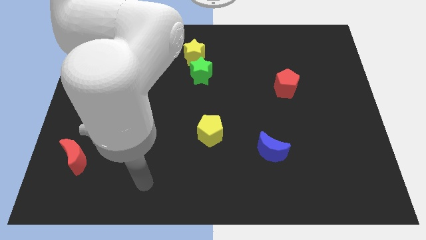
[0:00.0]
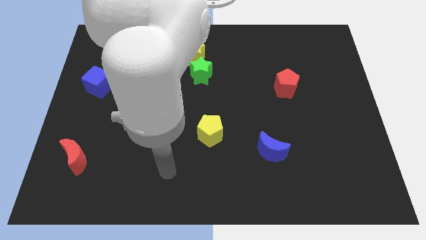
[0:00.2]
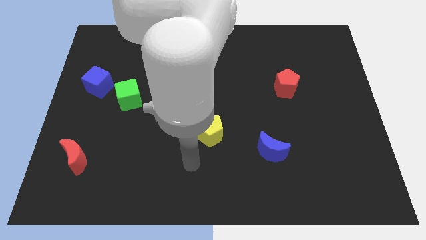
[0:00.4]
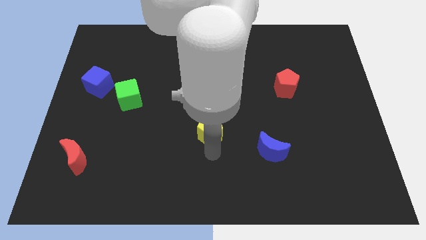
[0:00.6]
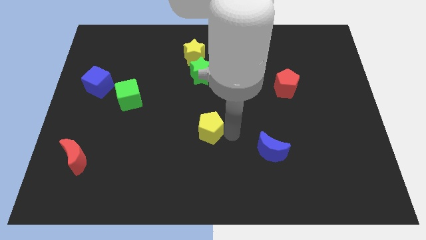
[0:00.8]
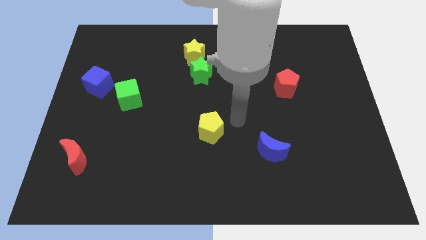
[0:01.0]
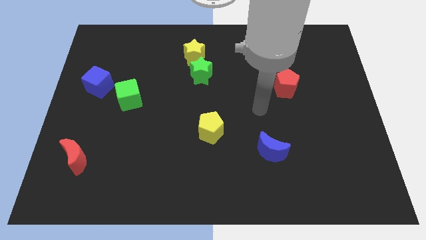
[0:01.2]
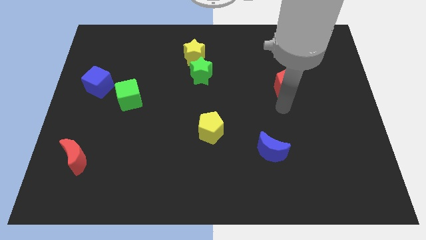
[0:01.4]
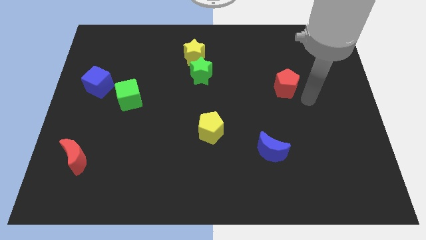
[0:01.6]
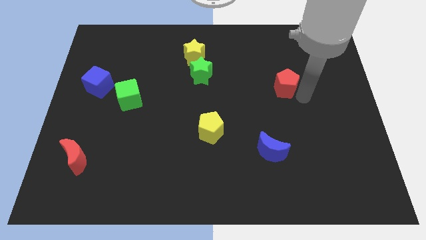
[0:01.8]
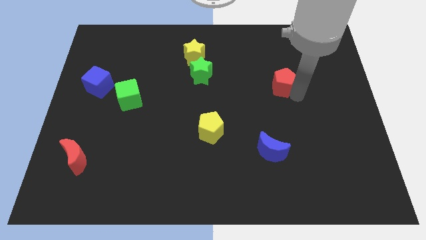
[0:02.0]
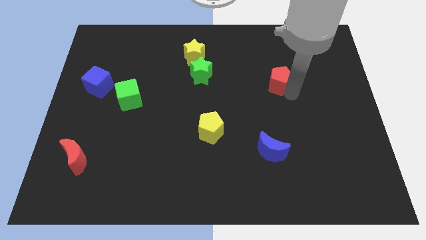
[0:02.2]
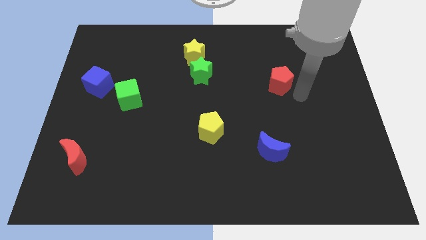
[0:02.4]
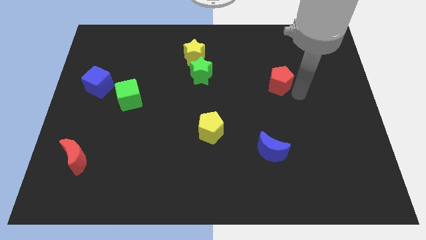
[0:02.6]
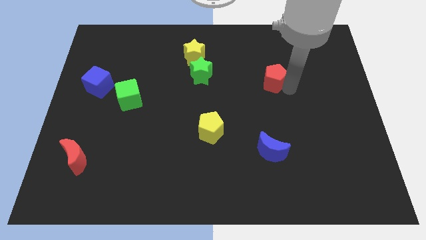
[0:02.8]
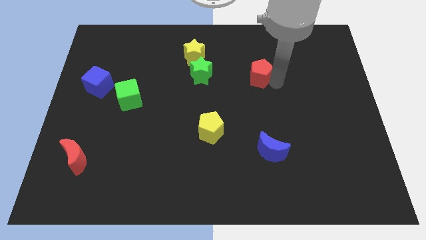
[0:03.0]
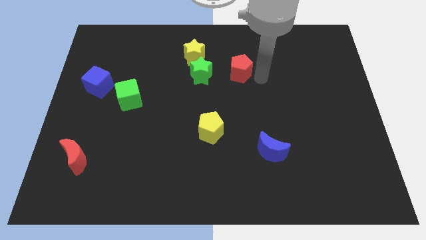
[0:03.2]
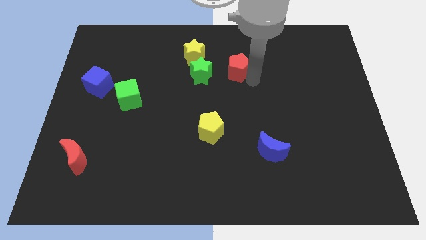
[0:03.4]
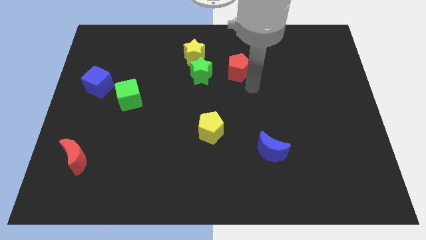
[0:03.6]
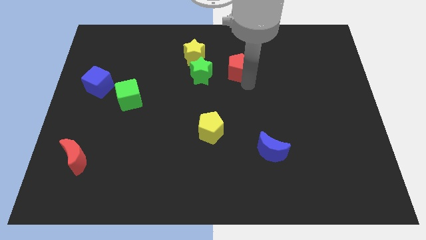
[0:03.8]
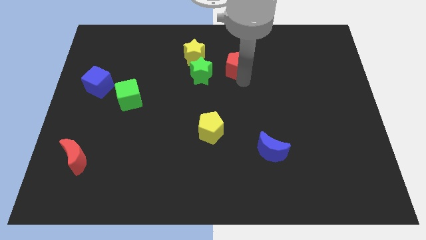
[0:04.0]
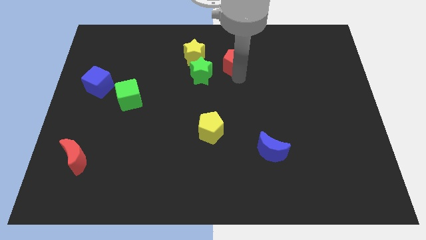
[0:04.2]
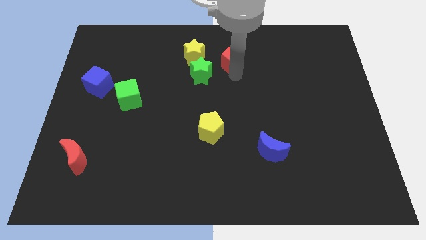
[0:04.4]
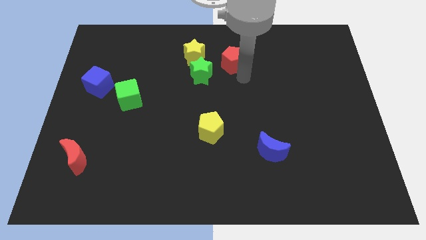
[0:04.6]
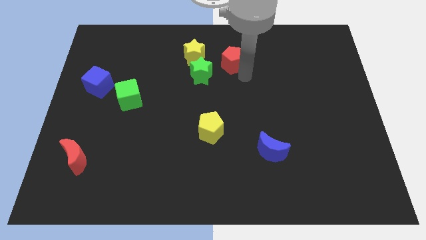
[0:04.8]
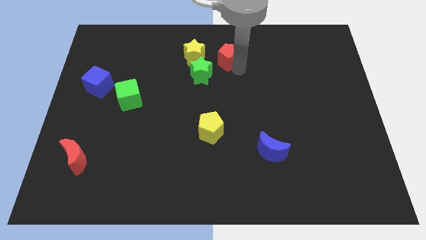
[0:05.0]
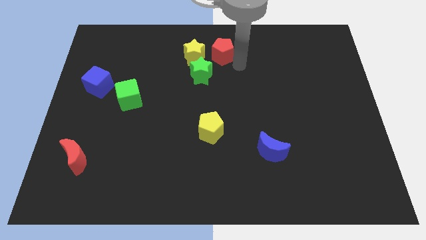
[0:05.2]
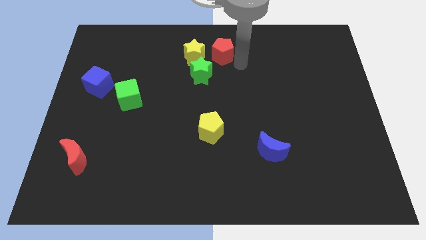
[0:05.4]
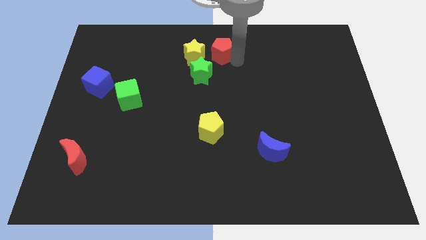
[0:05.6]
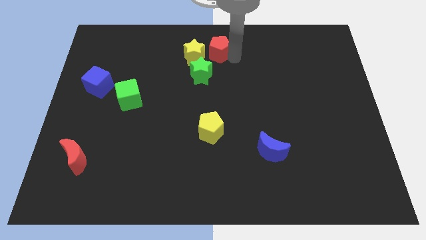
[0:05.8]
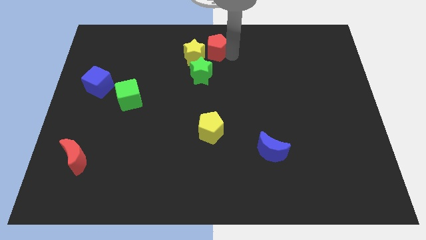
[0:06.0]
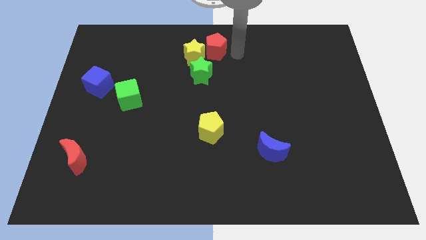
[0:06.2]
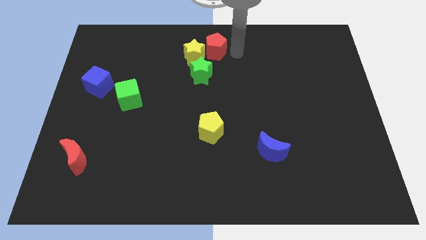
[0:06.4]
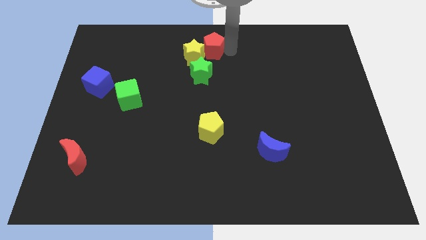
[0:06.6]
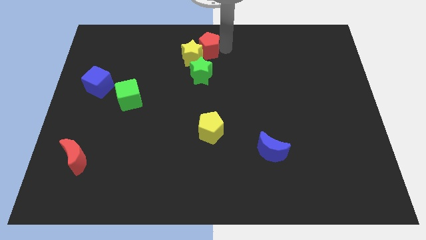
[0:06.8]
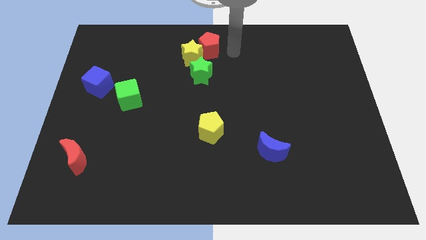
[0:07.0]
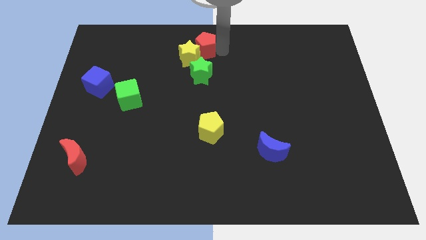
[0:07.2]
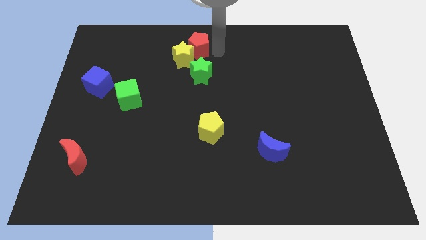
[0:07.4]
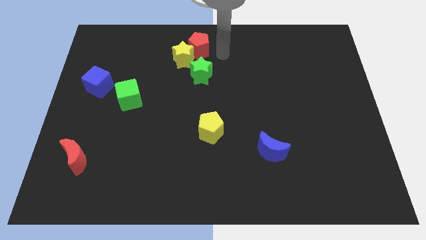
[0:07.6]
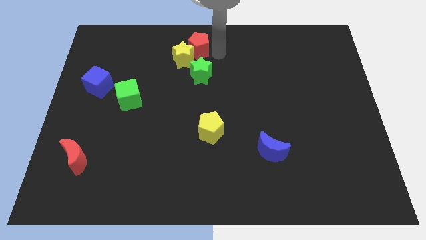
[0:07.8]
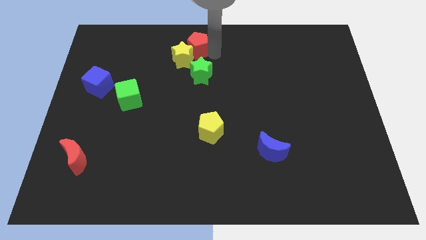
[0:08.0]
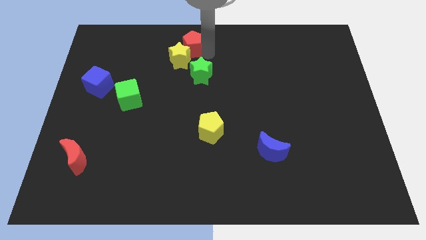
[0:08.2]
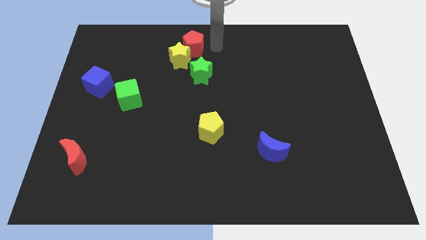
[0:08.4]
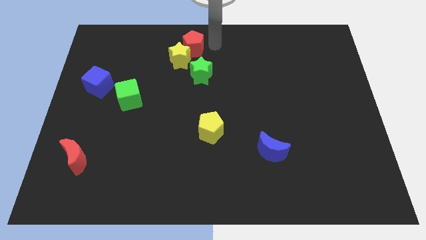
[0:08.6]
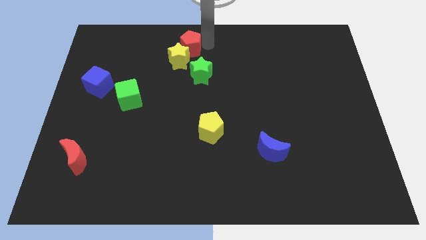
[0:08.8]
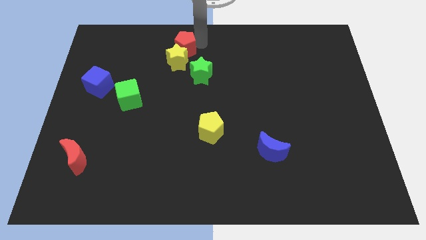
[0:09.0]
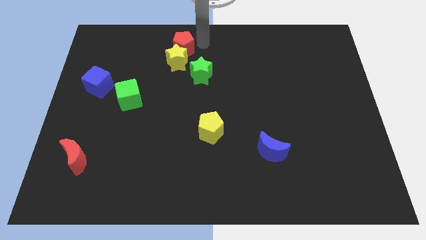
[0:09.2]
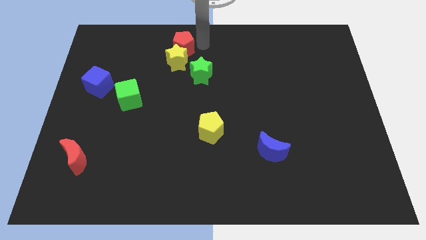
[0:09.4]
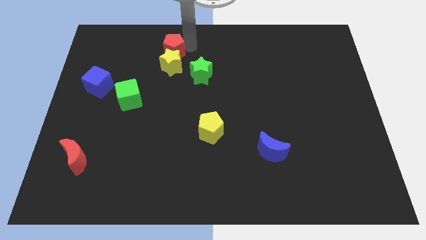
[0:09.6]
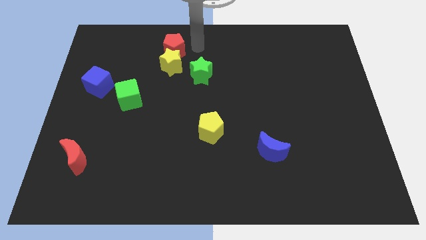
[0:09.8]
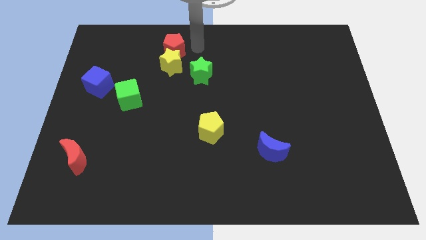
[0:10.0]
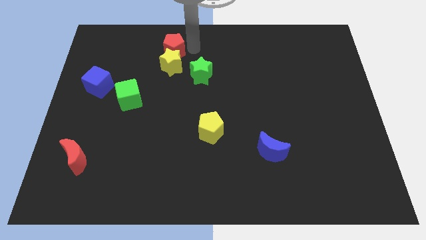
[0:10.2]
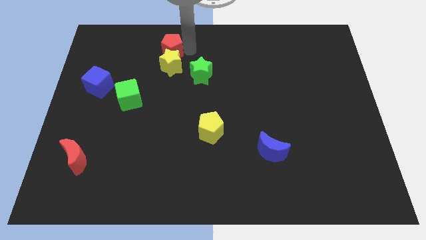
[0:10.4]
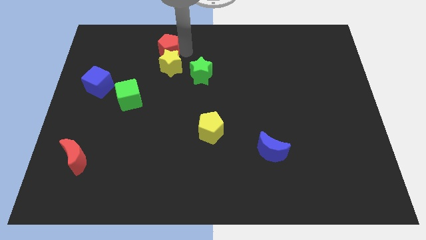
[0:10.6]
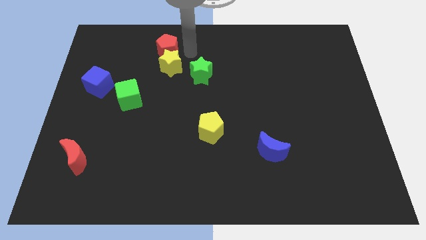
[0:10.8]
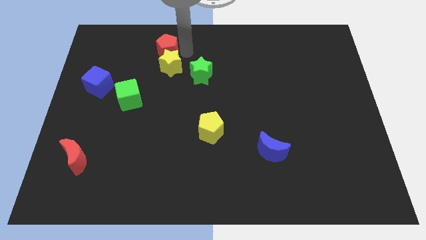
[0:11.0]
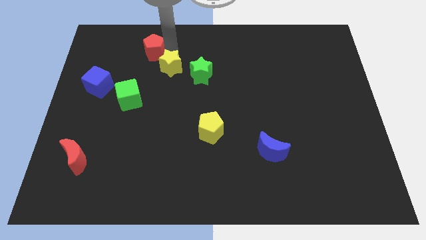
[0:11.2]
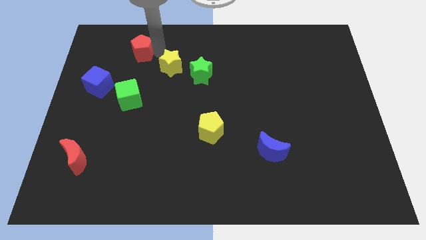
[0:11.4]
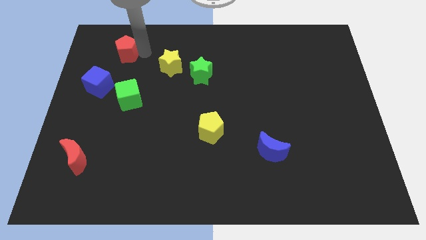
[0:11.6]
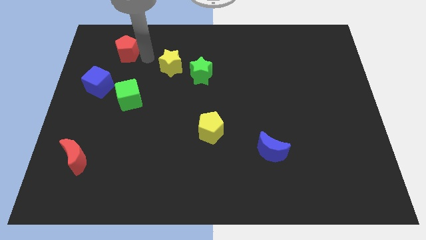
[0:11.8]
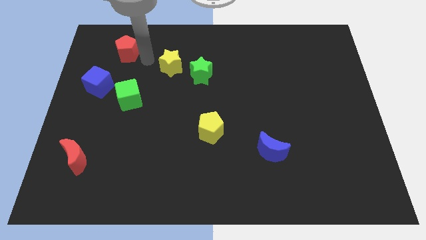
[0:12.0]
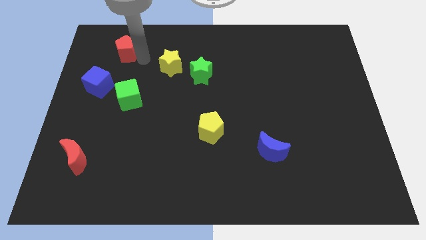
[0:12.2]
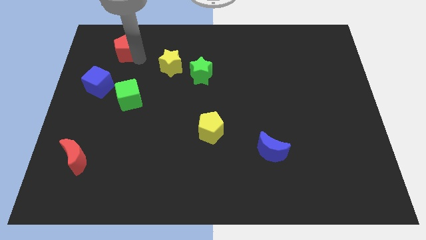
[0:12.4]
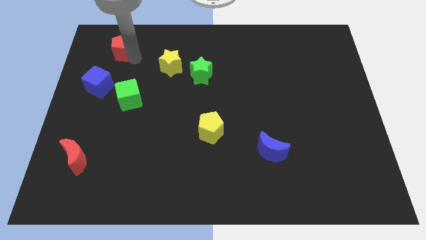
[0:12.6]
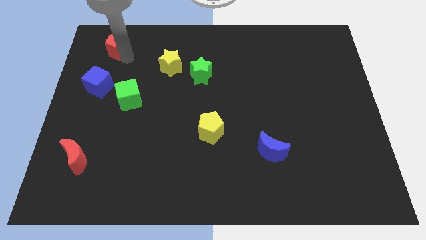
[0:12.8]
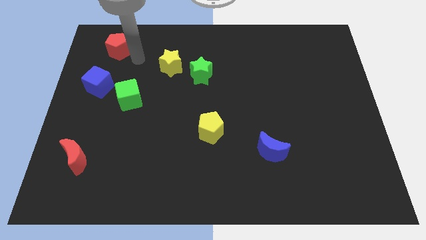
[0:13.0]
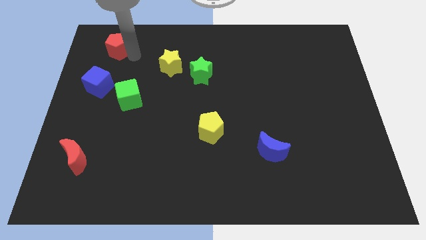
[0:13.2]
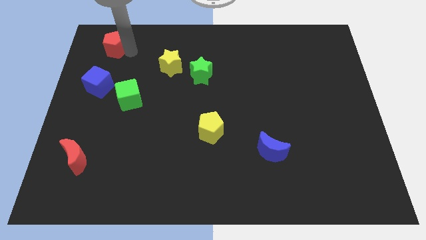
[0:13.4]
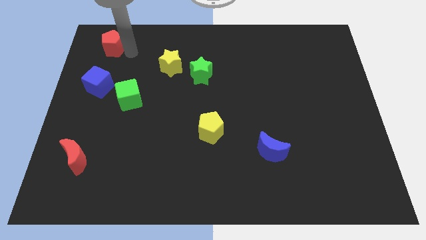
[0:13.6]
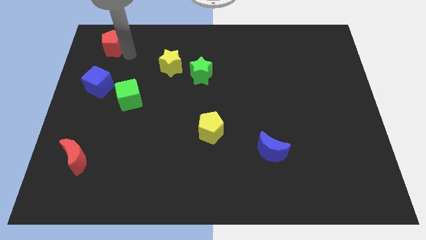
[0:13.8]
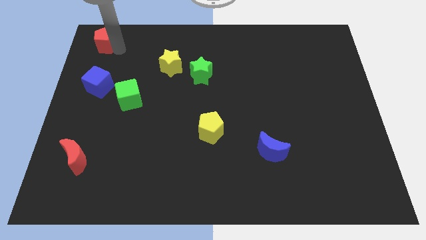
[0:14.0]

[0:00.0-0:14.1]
put the red pentagon to the top left of the board
